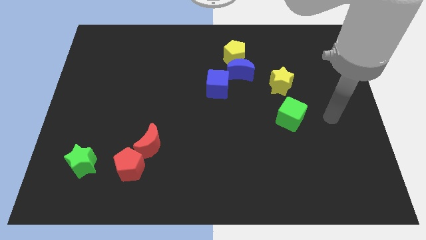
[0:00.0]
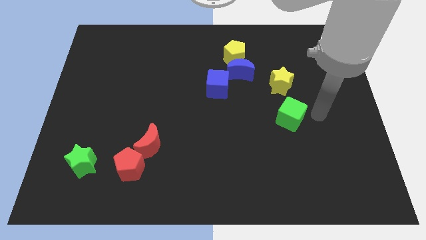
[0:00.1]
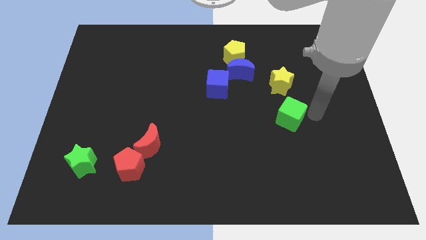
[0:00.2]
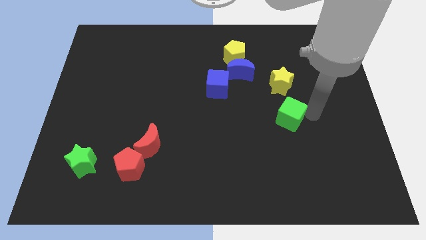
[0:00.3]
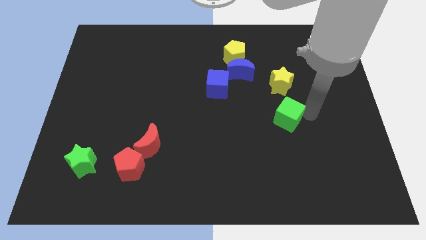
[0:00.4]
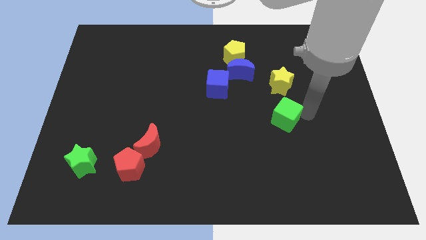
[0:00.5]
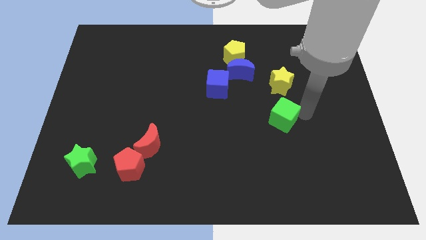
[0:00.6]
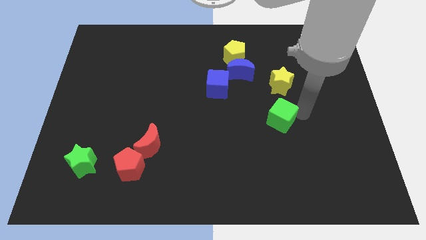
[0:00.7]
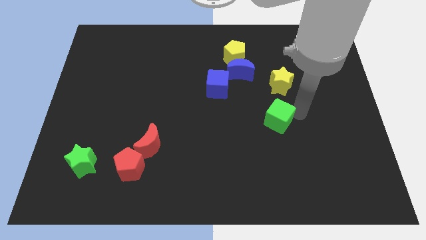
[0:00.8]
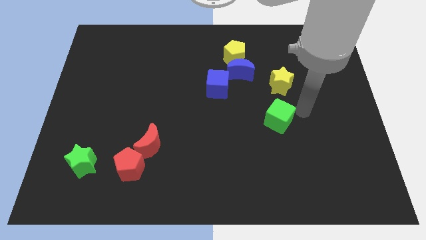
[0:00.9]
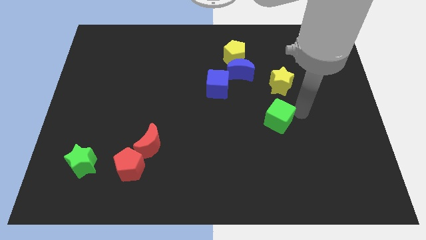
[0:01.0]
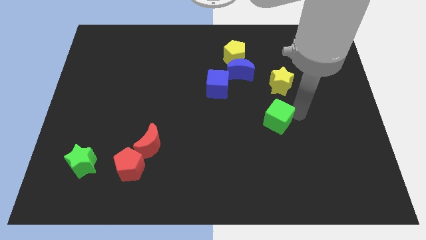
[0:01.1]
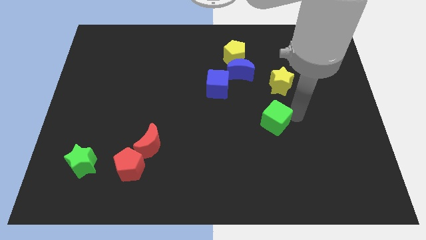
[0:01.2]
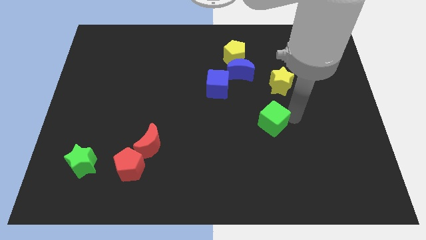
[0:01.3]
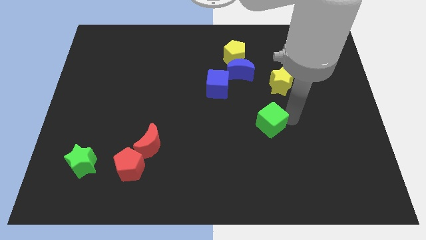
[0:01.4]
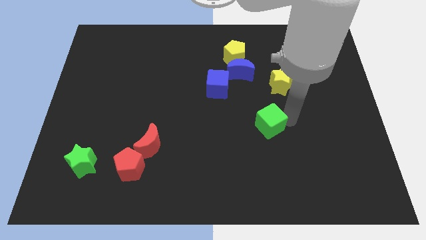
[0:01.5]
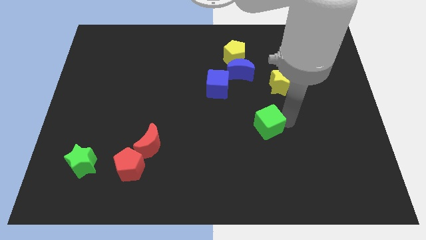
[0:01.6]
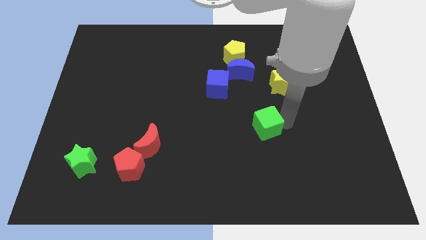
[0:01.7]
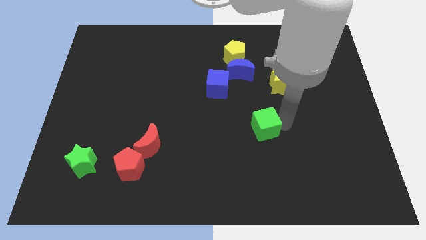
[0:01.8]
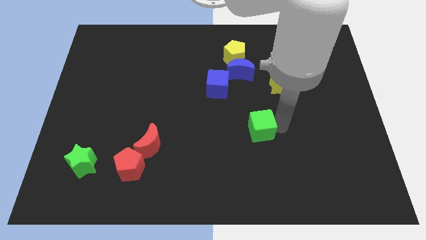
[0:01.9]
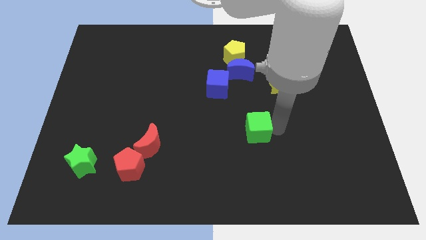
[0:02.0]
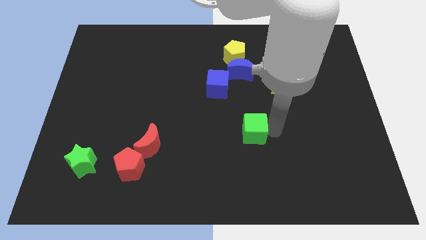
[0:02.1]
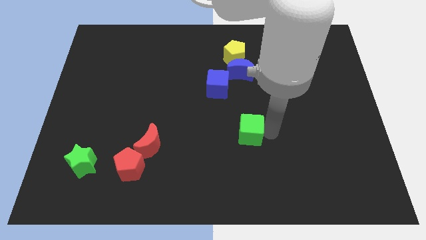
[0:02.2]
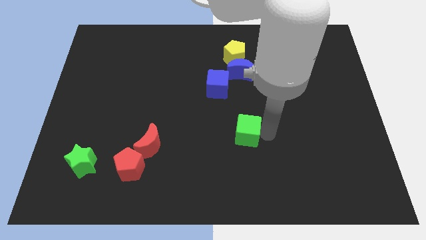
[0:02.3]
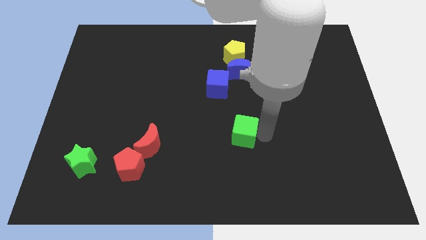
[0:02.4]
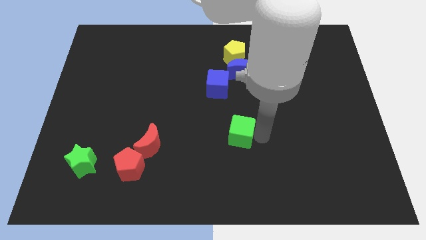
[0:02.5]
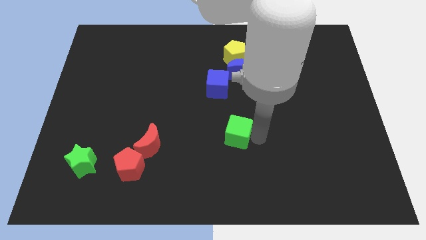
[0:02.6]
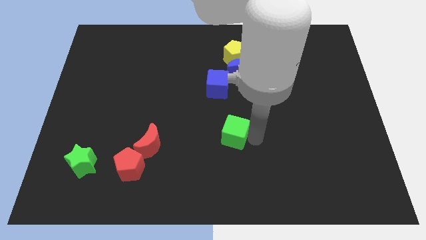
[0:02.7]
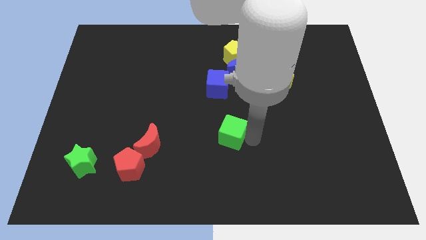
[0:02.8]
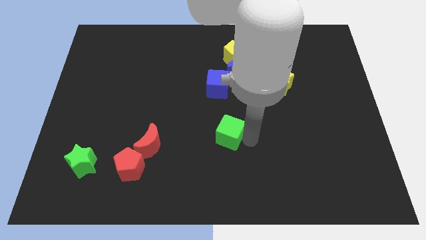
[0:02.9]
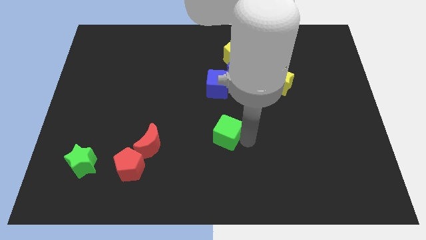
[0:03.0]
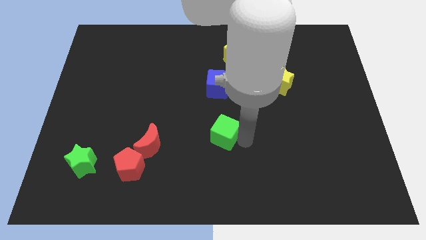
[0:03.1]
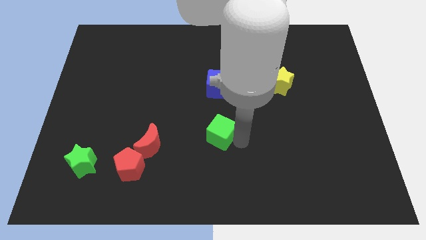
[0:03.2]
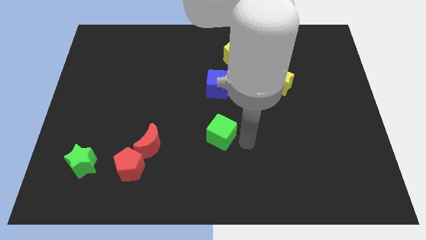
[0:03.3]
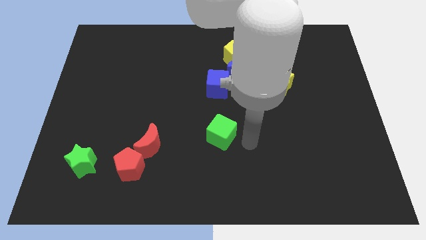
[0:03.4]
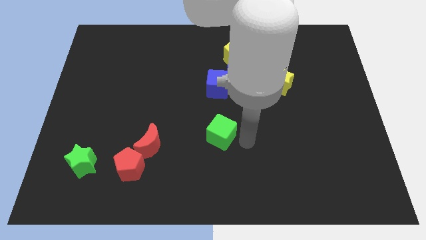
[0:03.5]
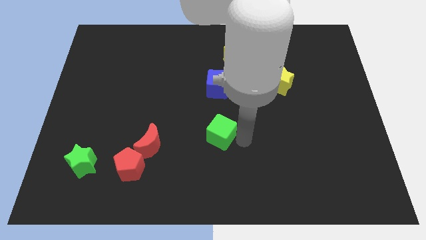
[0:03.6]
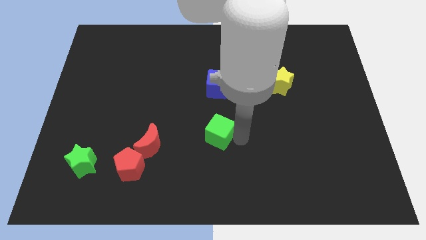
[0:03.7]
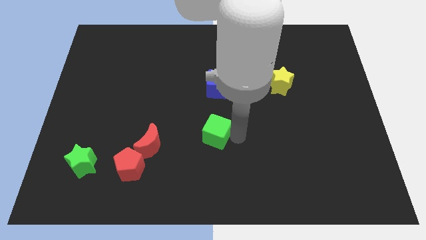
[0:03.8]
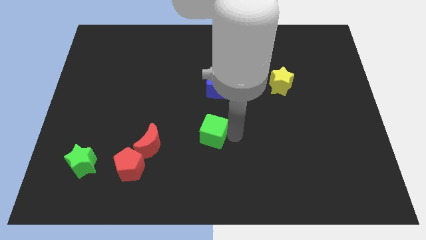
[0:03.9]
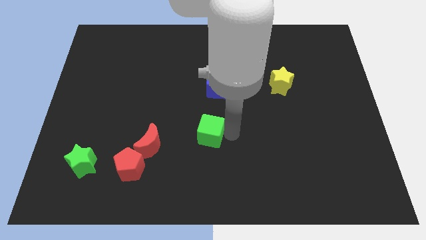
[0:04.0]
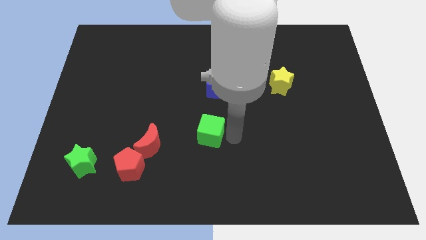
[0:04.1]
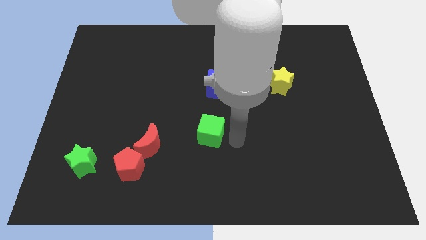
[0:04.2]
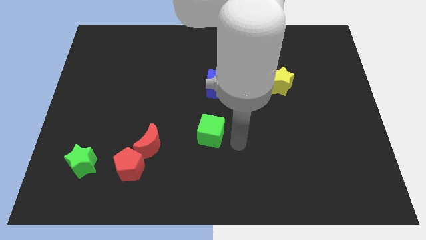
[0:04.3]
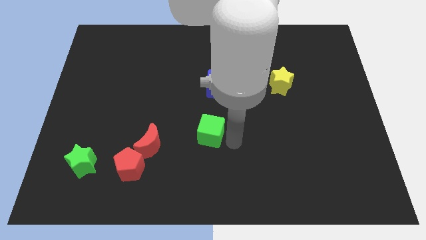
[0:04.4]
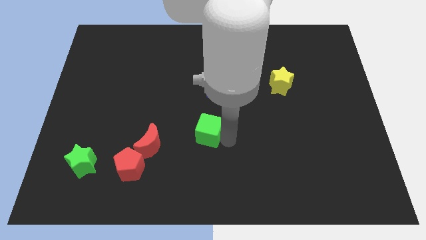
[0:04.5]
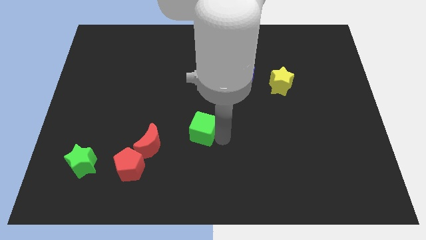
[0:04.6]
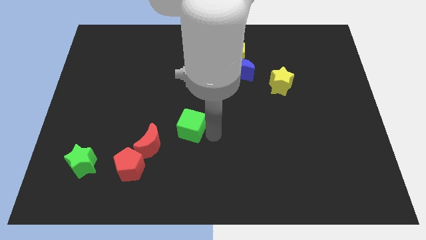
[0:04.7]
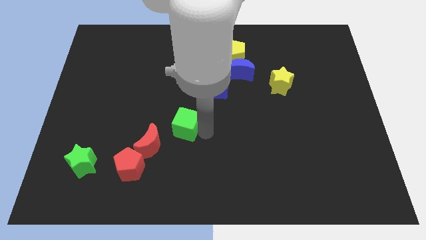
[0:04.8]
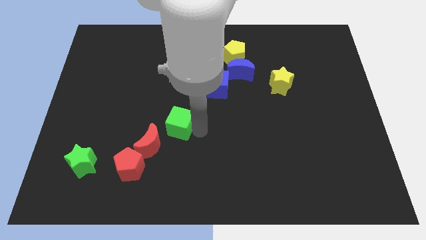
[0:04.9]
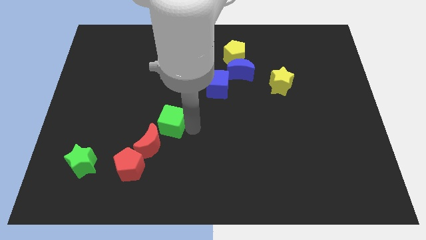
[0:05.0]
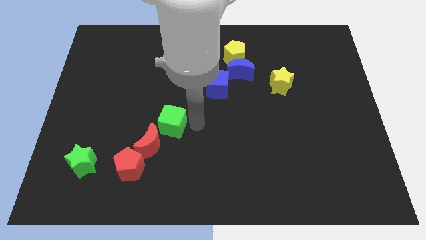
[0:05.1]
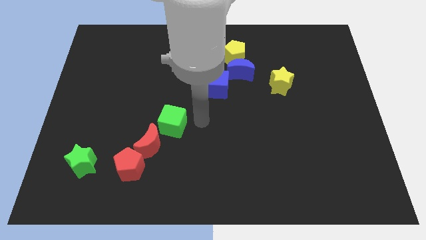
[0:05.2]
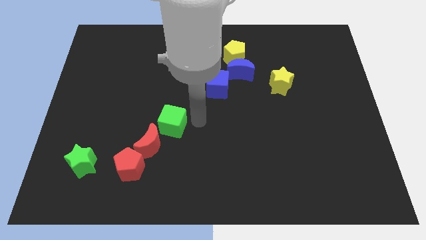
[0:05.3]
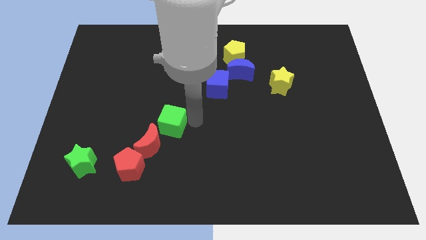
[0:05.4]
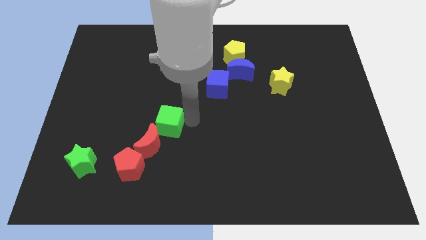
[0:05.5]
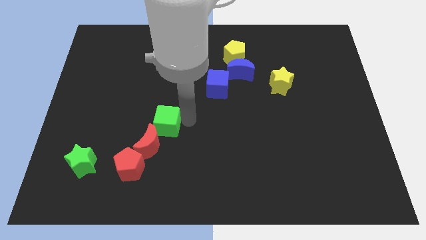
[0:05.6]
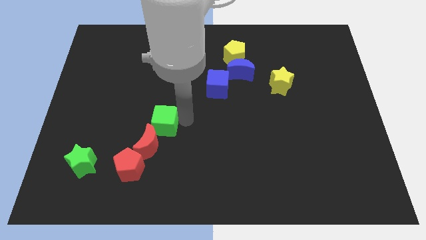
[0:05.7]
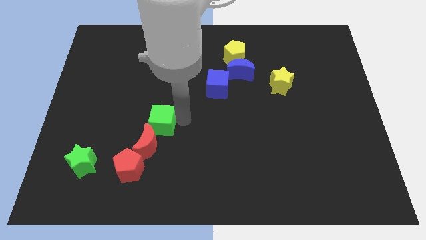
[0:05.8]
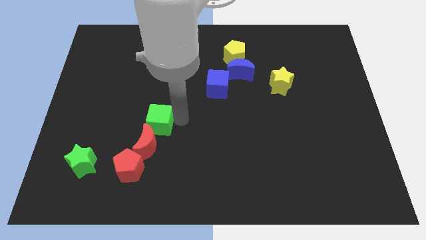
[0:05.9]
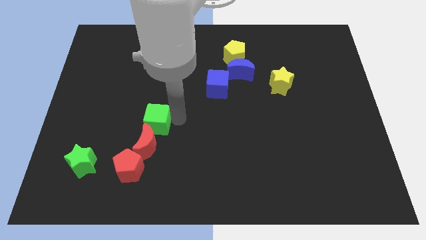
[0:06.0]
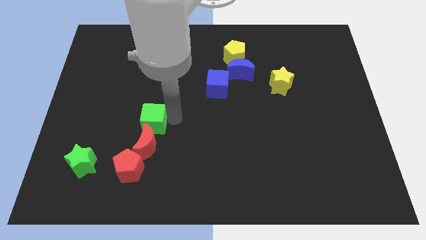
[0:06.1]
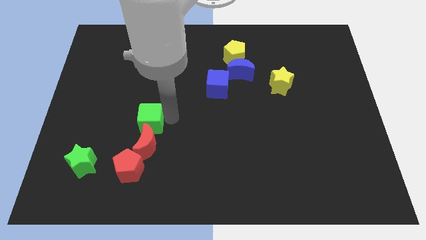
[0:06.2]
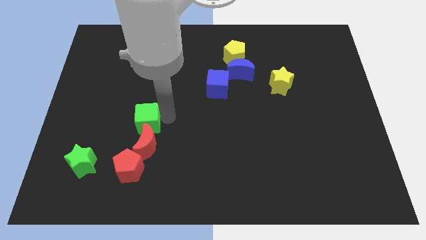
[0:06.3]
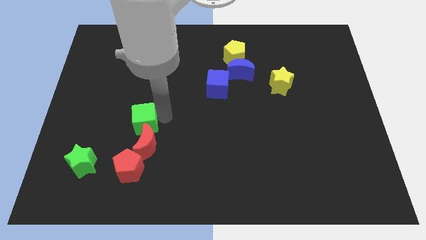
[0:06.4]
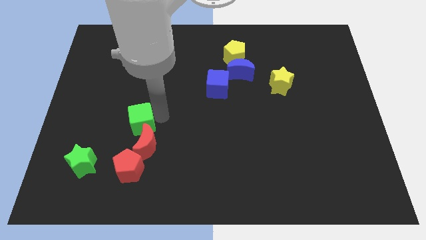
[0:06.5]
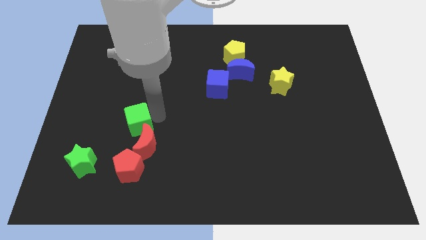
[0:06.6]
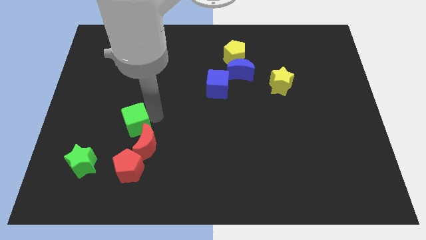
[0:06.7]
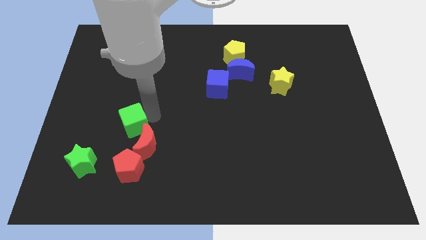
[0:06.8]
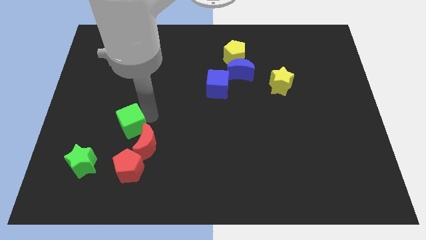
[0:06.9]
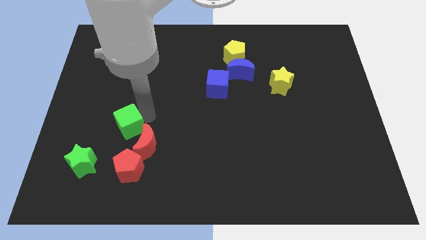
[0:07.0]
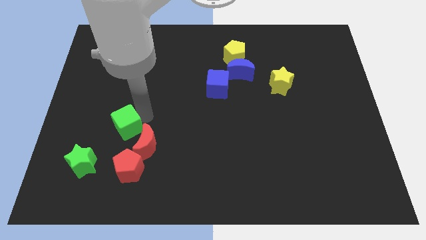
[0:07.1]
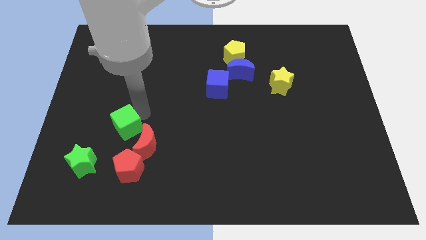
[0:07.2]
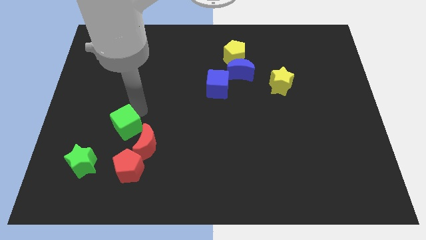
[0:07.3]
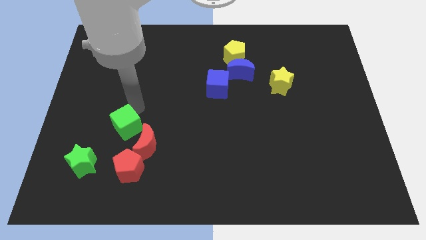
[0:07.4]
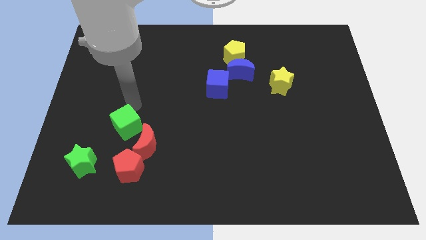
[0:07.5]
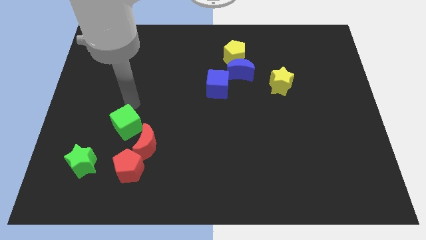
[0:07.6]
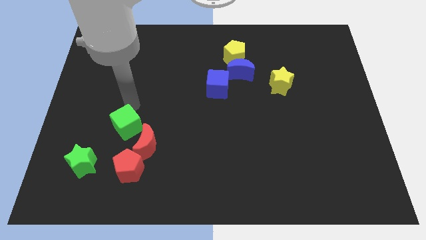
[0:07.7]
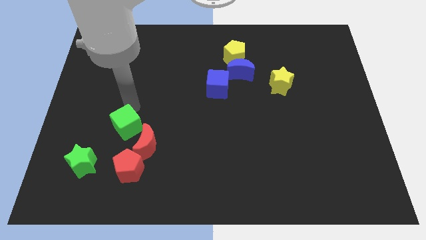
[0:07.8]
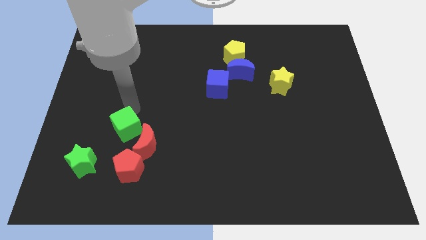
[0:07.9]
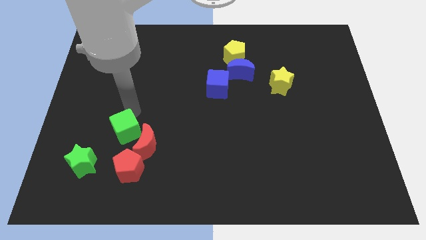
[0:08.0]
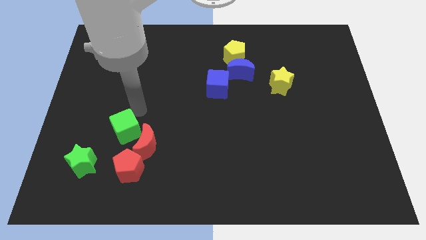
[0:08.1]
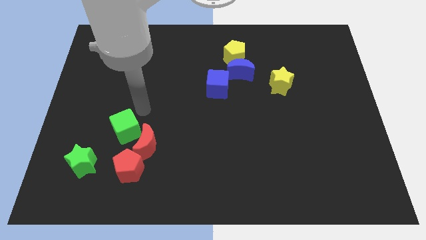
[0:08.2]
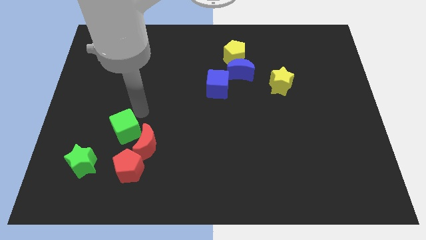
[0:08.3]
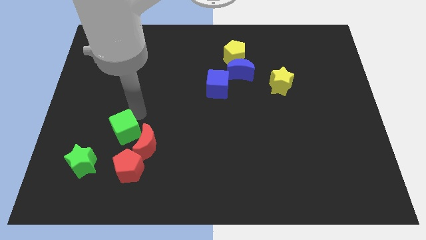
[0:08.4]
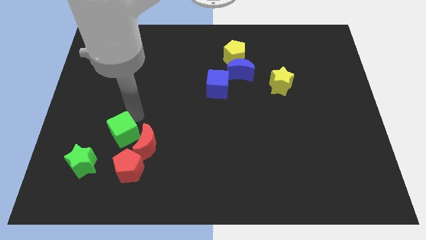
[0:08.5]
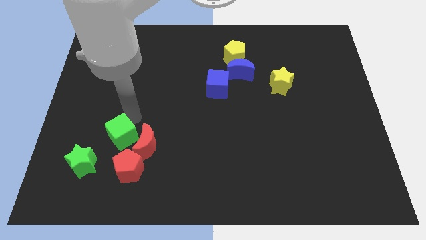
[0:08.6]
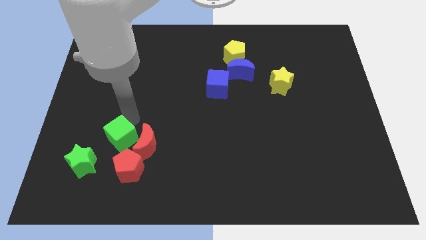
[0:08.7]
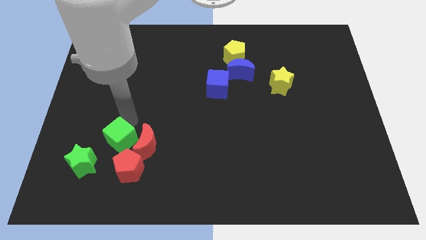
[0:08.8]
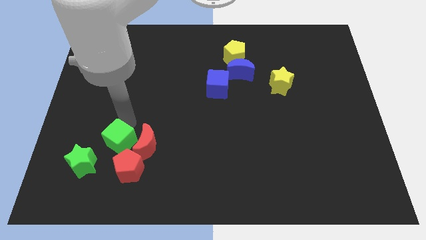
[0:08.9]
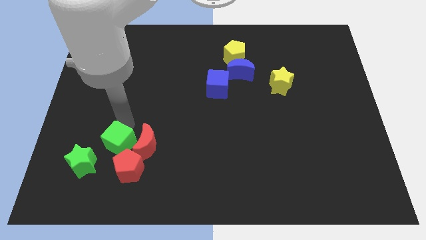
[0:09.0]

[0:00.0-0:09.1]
move the green cube diagonally down and to the left of the red moon
